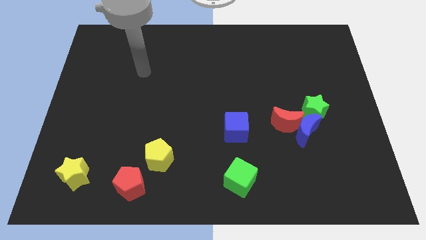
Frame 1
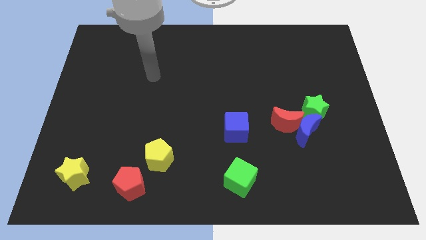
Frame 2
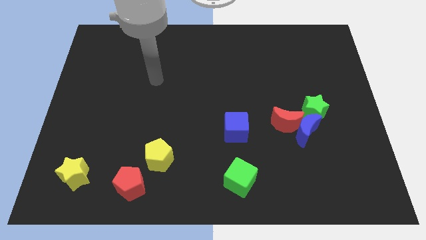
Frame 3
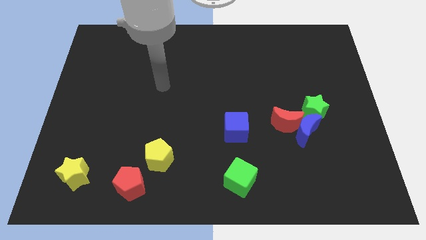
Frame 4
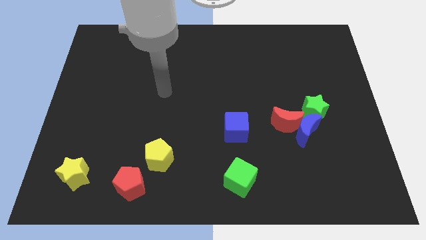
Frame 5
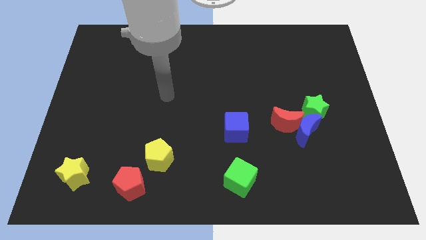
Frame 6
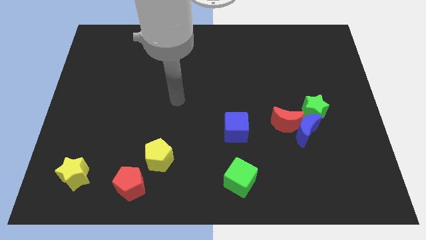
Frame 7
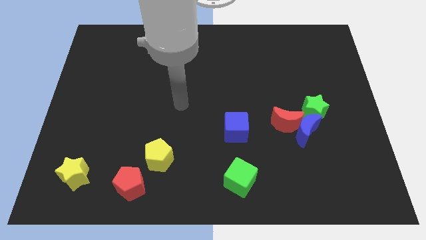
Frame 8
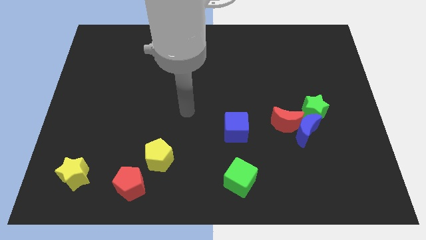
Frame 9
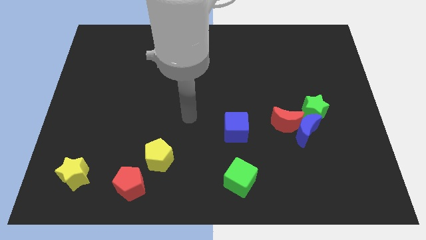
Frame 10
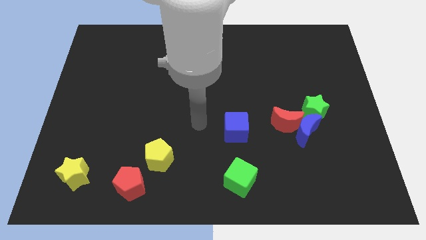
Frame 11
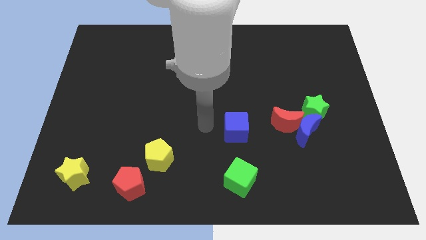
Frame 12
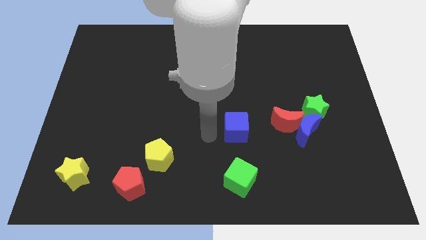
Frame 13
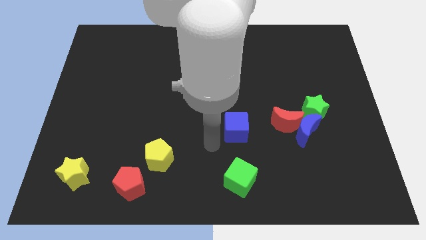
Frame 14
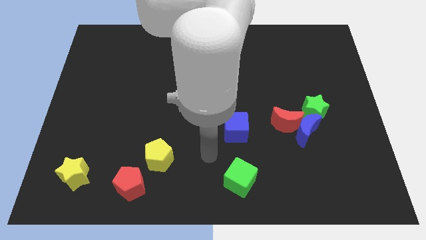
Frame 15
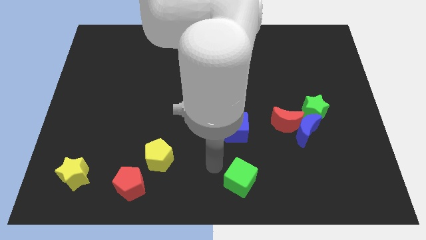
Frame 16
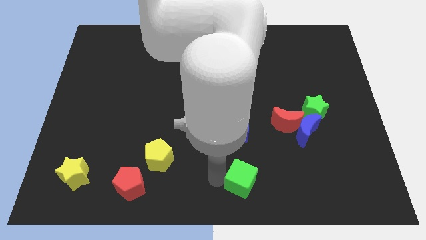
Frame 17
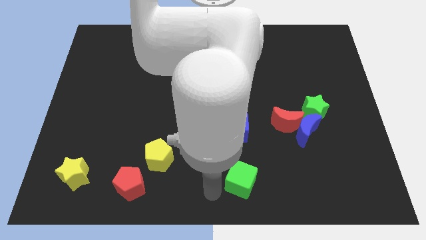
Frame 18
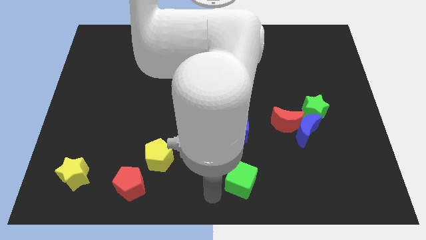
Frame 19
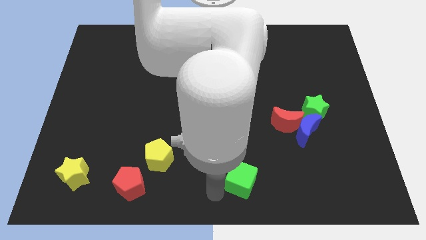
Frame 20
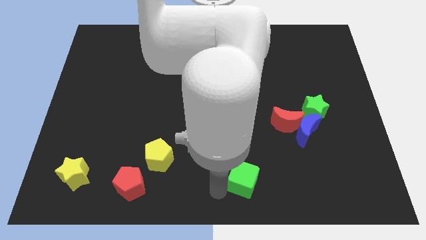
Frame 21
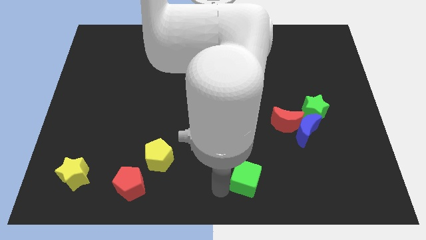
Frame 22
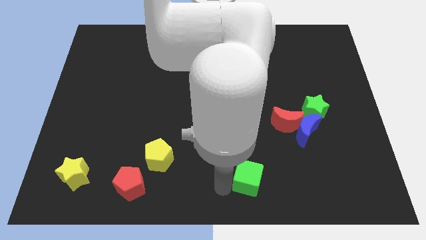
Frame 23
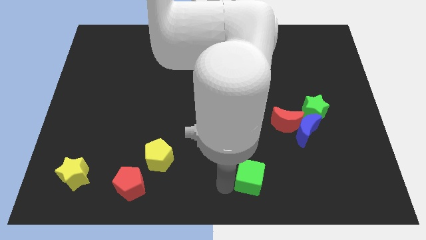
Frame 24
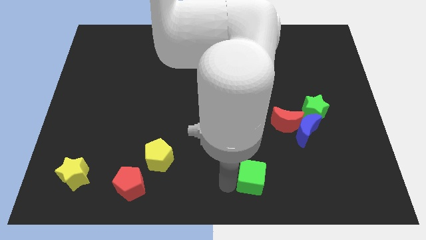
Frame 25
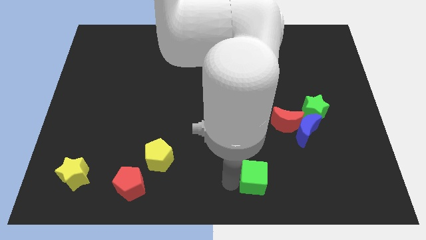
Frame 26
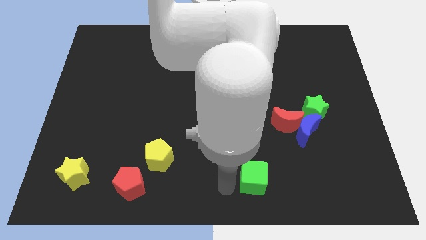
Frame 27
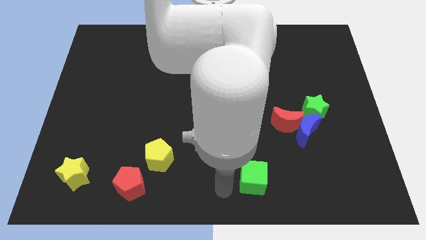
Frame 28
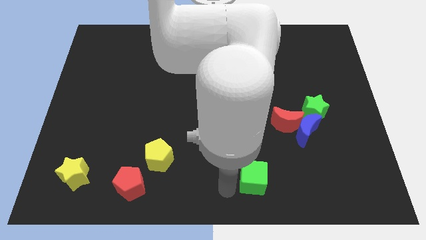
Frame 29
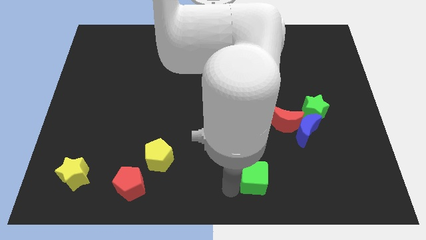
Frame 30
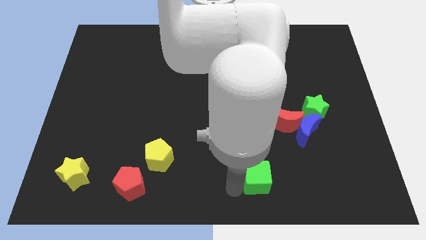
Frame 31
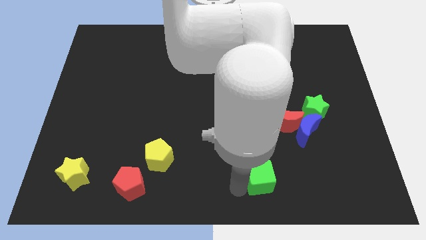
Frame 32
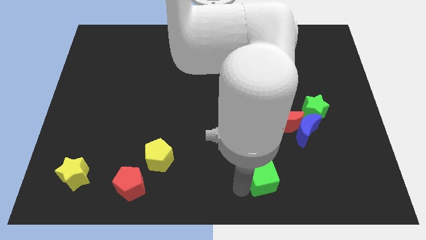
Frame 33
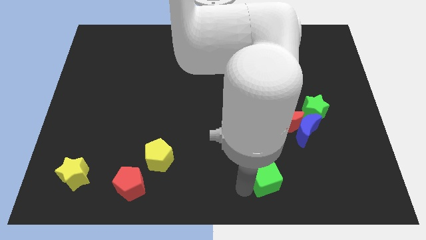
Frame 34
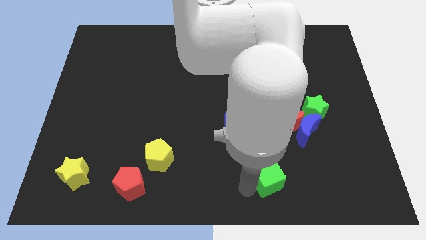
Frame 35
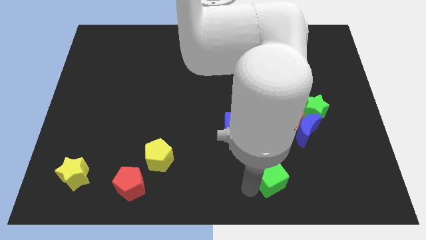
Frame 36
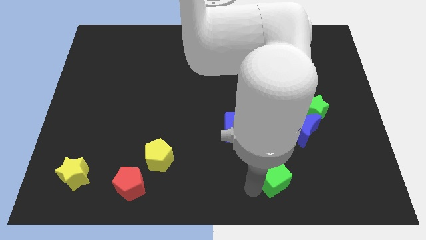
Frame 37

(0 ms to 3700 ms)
slide the green cube a little to the right

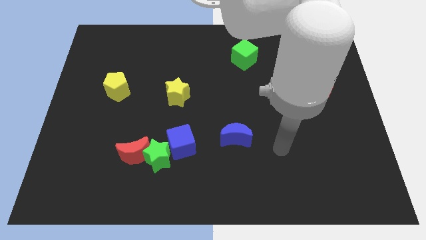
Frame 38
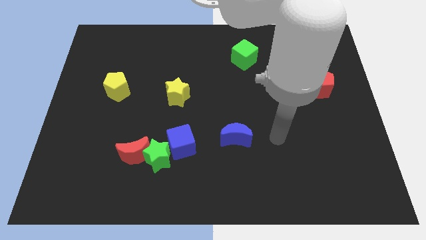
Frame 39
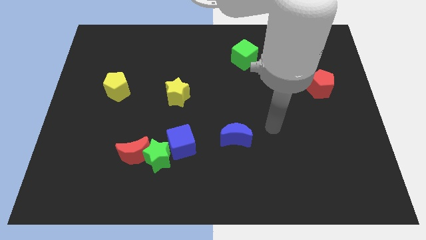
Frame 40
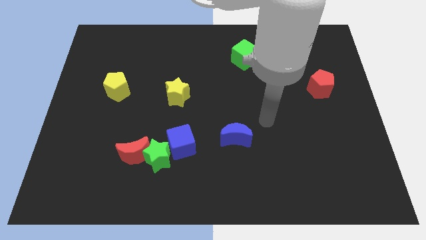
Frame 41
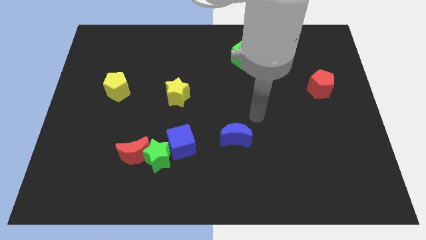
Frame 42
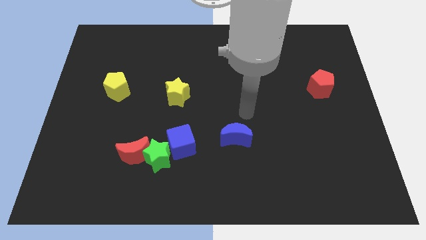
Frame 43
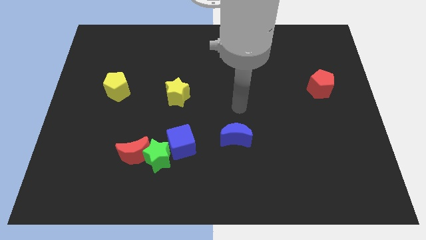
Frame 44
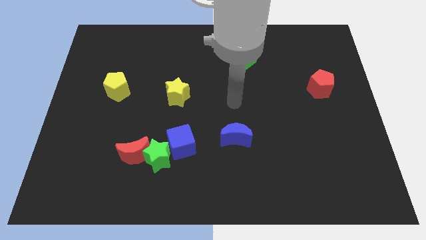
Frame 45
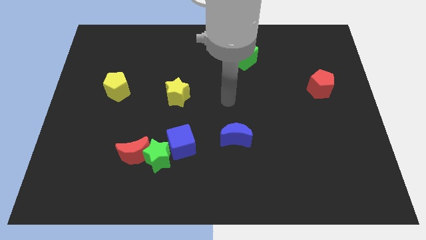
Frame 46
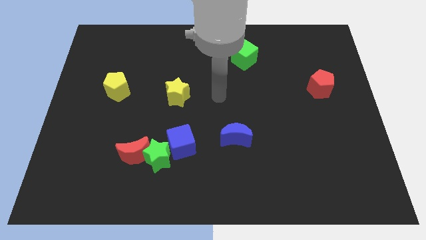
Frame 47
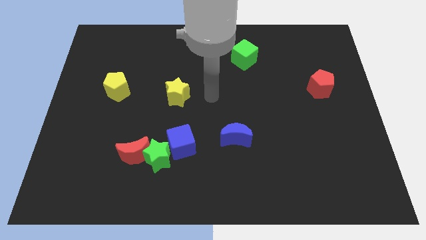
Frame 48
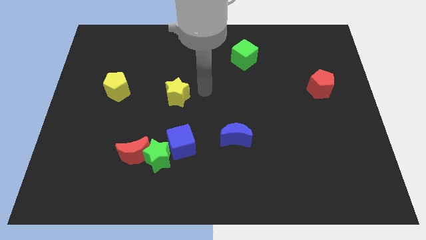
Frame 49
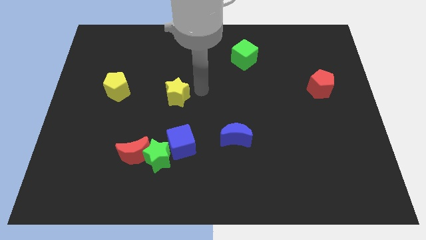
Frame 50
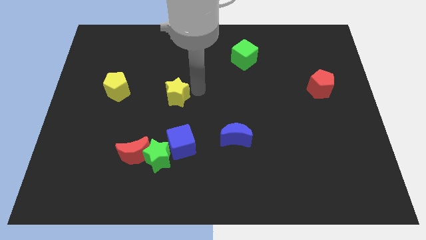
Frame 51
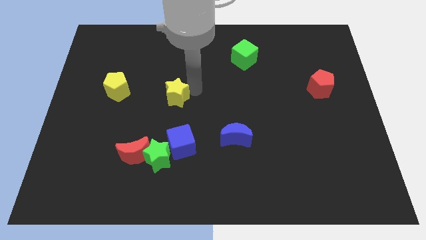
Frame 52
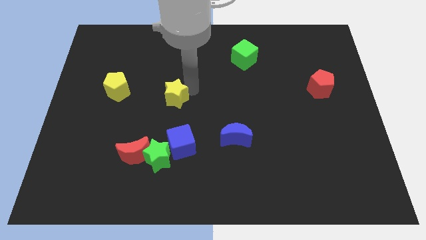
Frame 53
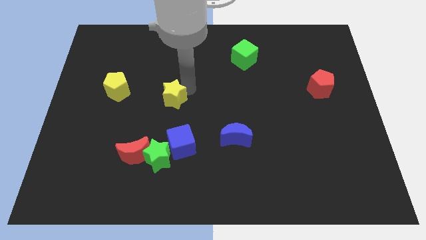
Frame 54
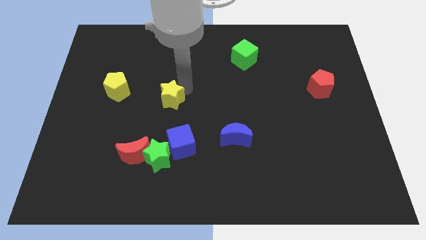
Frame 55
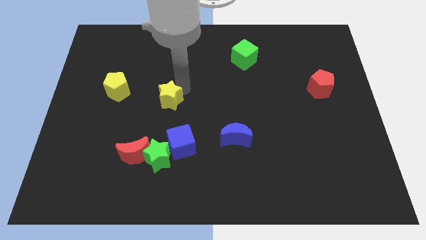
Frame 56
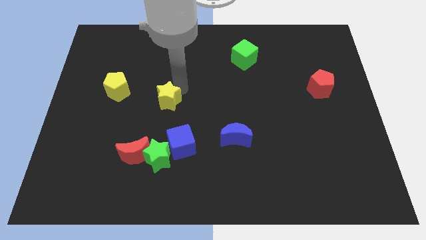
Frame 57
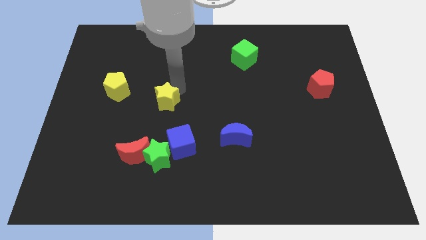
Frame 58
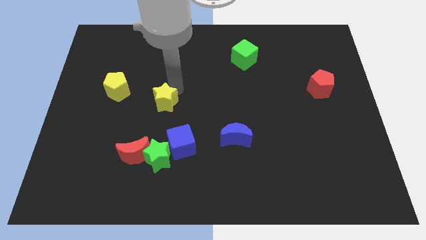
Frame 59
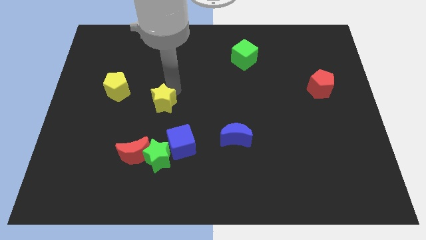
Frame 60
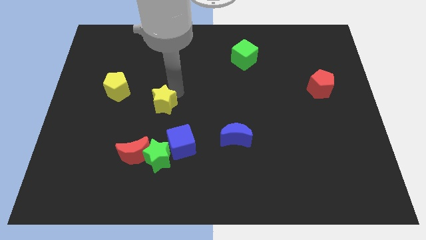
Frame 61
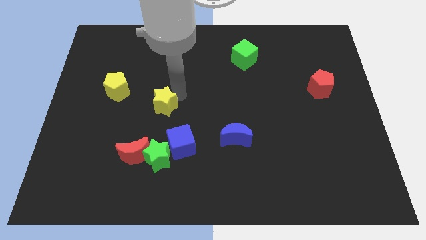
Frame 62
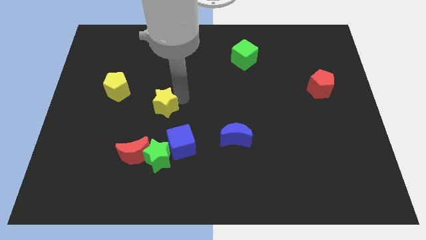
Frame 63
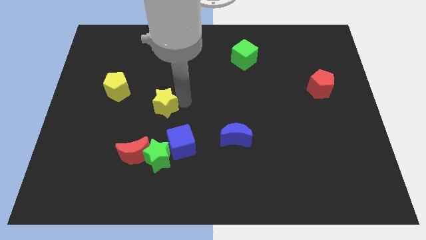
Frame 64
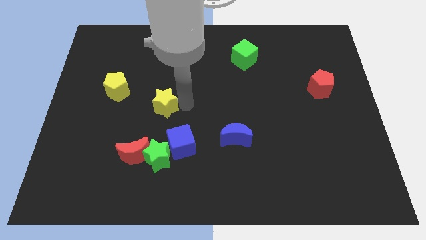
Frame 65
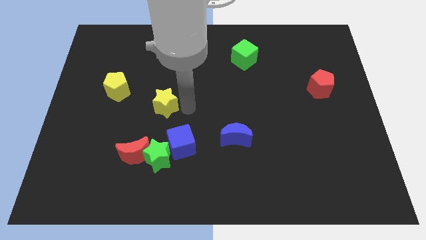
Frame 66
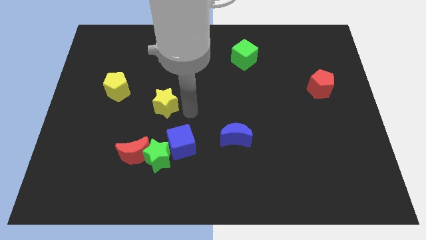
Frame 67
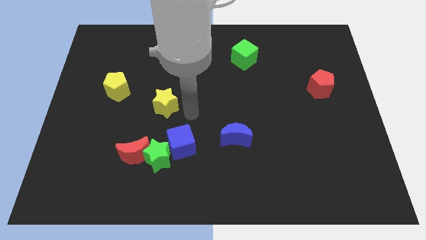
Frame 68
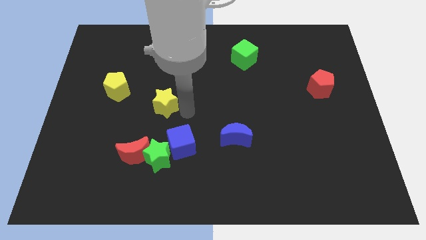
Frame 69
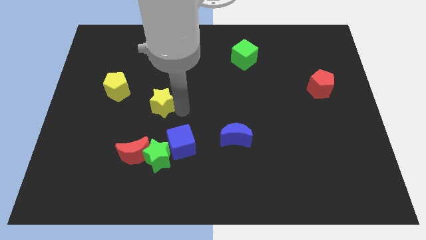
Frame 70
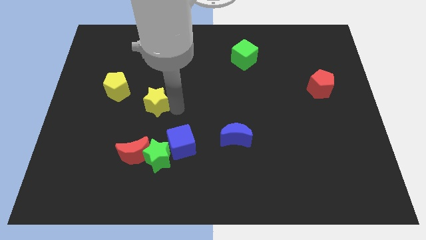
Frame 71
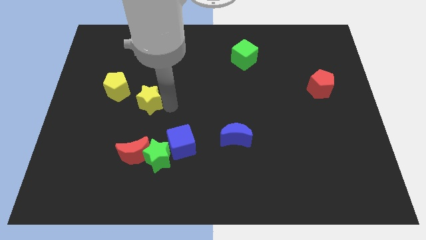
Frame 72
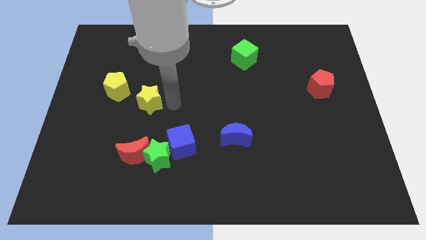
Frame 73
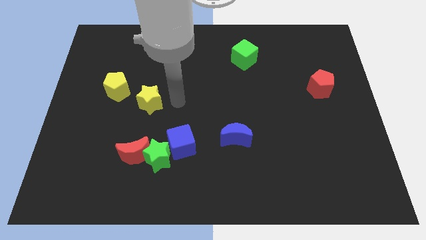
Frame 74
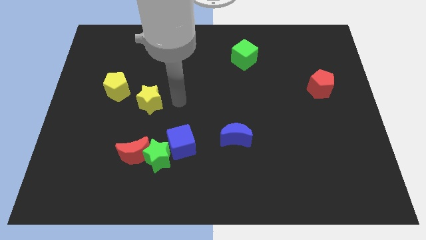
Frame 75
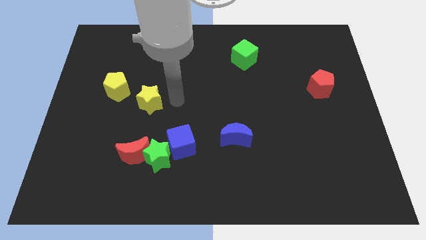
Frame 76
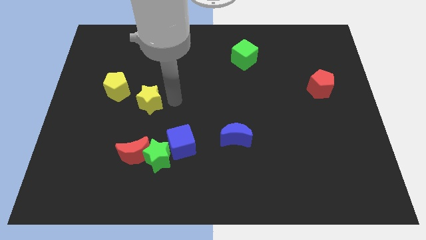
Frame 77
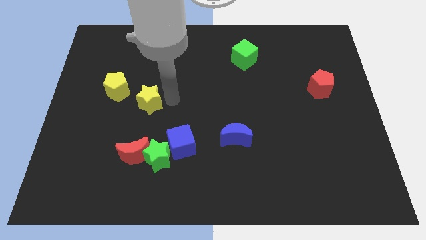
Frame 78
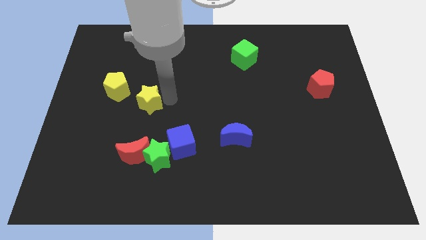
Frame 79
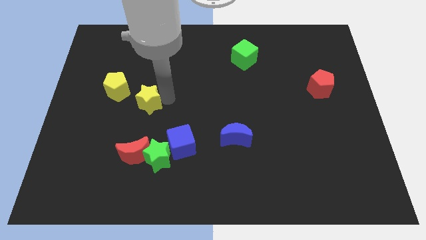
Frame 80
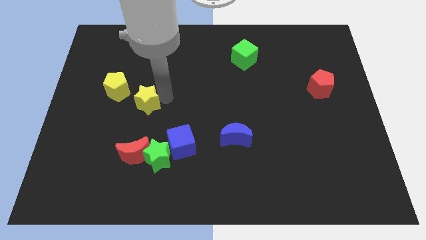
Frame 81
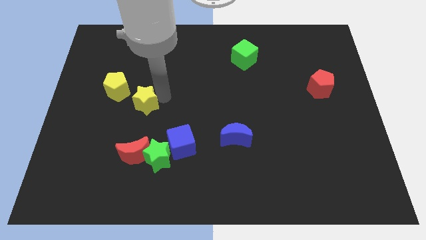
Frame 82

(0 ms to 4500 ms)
push the yellow star left a little bit
